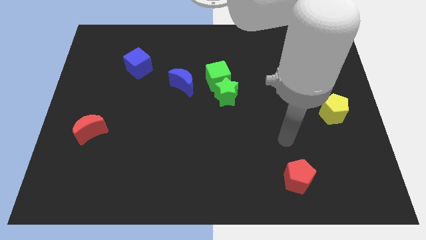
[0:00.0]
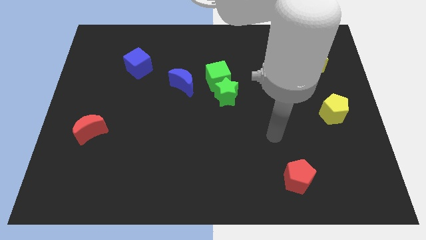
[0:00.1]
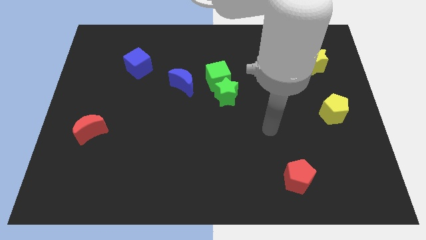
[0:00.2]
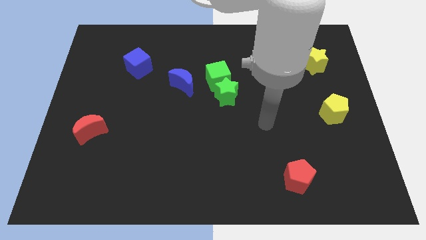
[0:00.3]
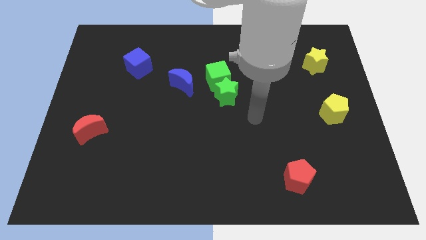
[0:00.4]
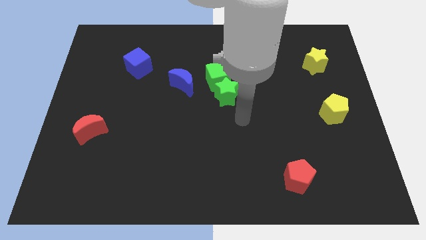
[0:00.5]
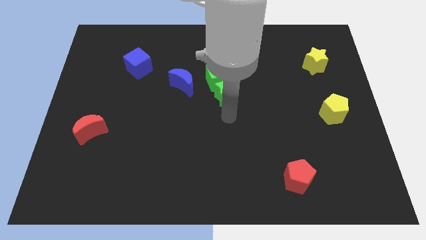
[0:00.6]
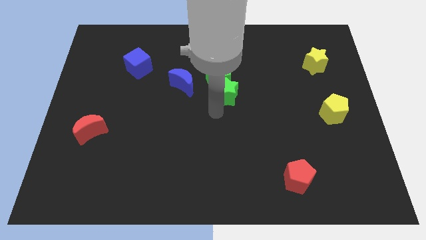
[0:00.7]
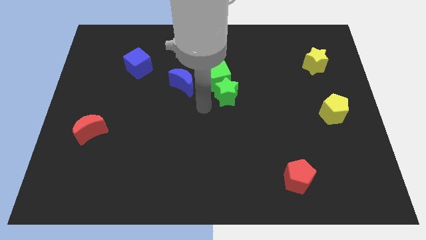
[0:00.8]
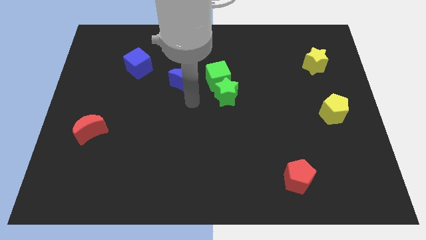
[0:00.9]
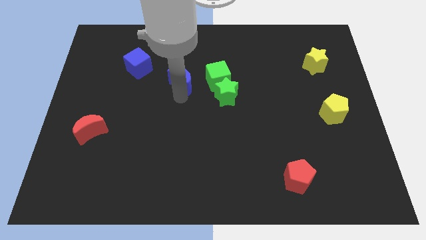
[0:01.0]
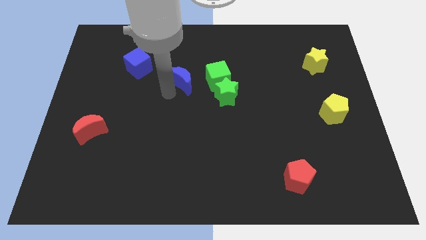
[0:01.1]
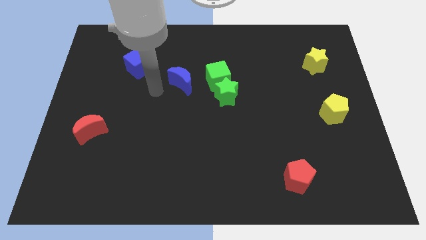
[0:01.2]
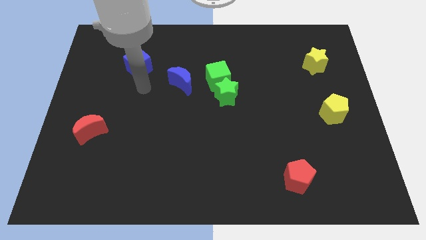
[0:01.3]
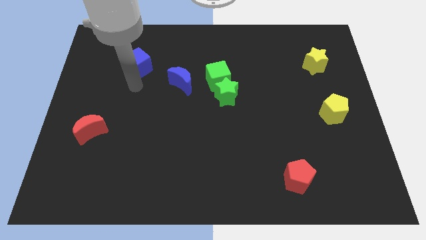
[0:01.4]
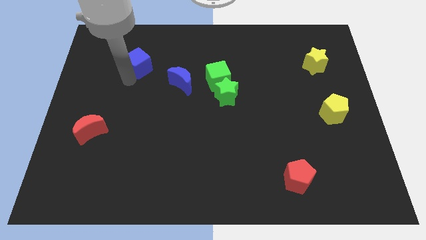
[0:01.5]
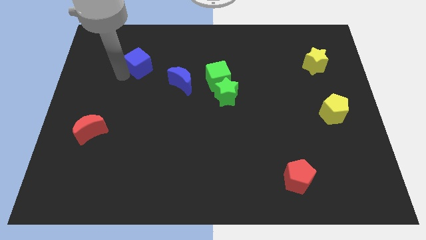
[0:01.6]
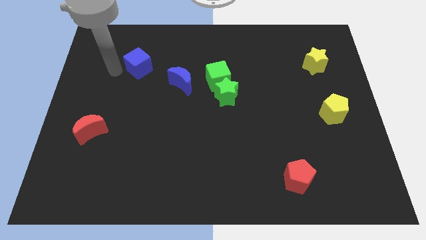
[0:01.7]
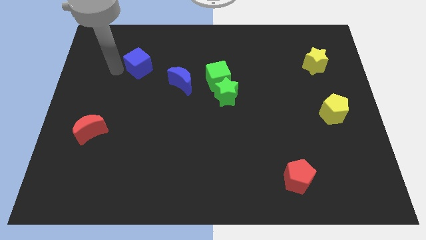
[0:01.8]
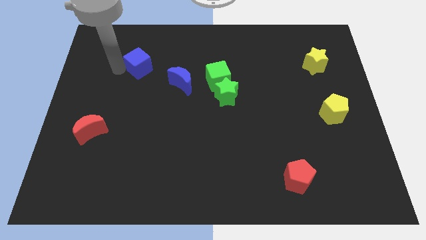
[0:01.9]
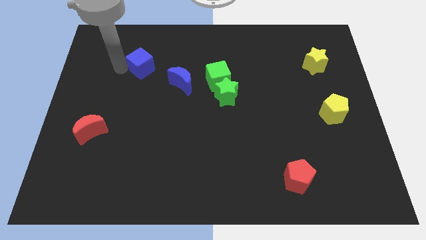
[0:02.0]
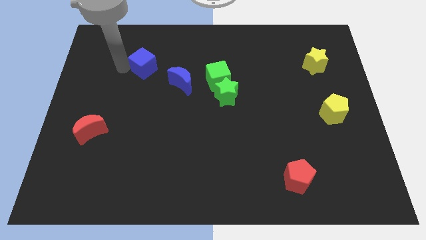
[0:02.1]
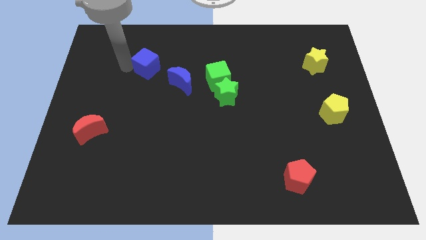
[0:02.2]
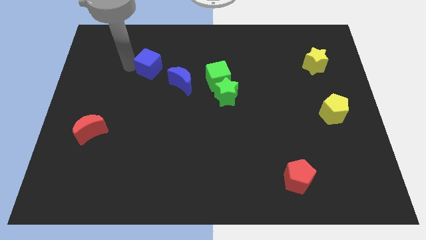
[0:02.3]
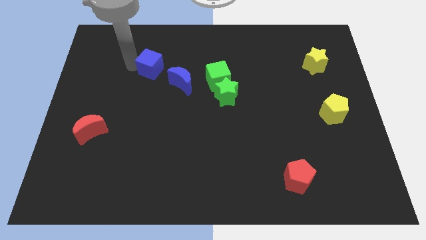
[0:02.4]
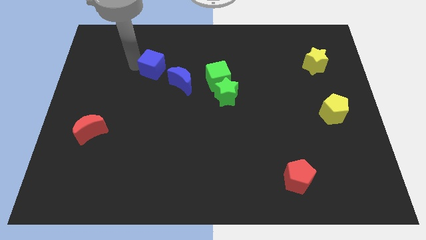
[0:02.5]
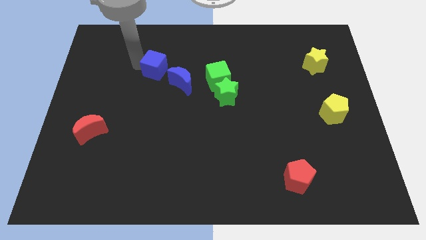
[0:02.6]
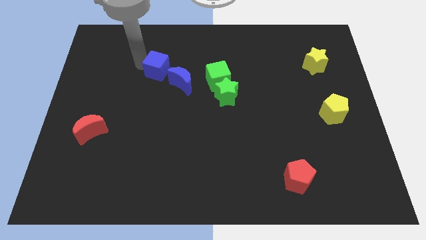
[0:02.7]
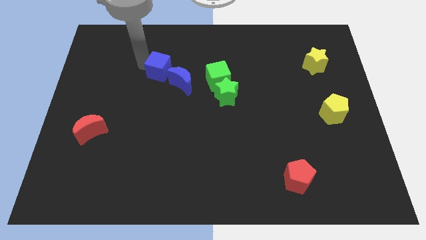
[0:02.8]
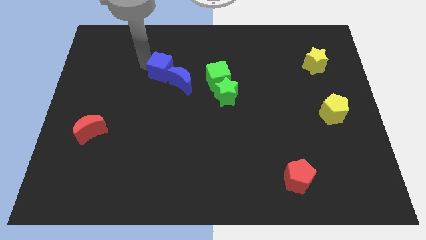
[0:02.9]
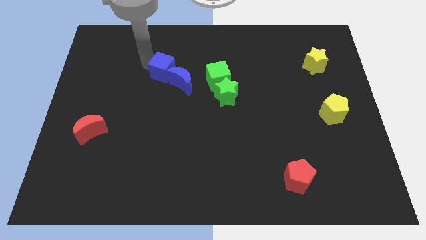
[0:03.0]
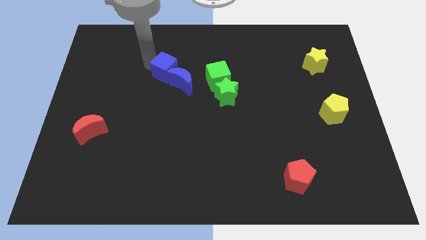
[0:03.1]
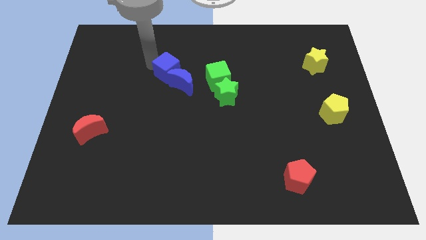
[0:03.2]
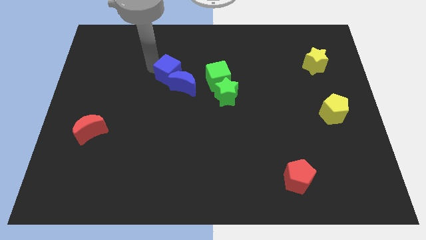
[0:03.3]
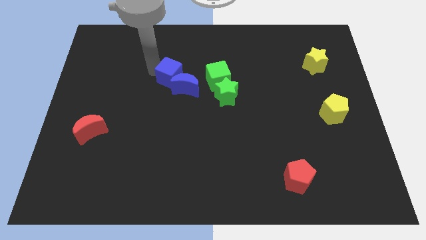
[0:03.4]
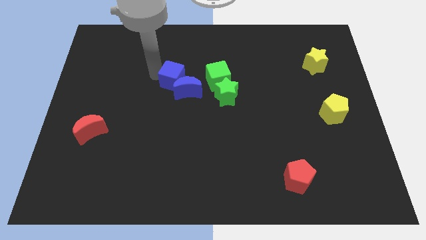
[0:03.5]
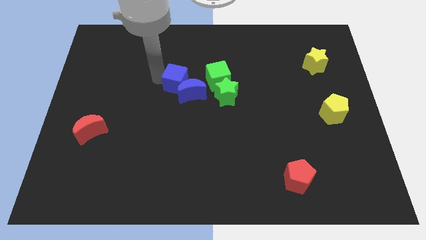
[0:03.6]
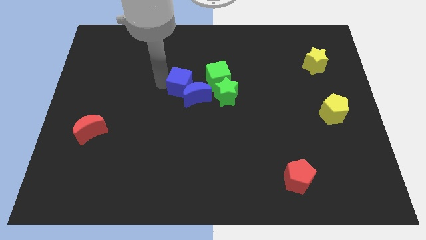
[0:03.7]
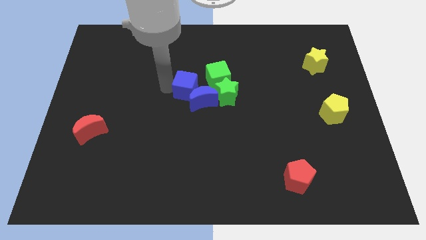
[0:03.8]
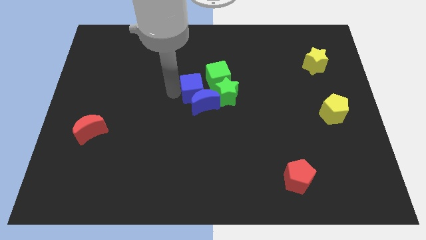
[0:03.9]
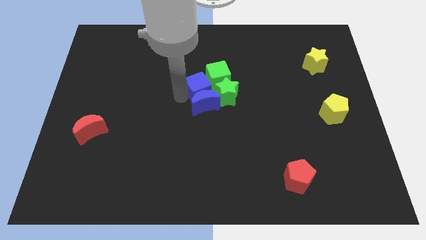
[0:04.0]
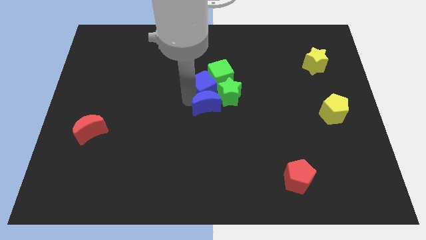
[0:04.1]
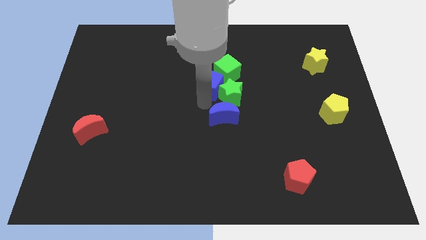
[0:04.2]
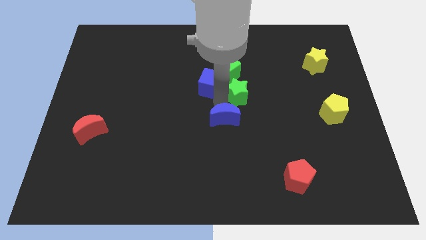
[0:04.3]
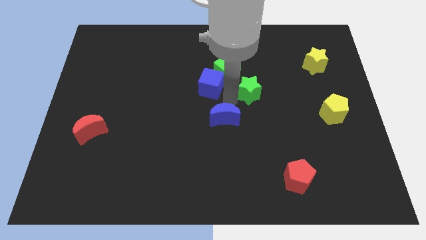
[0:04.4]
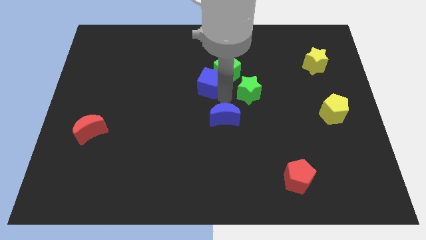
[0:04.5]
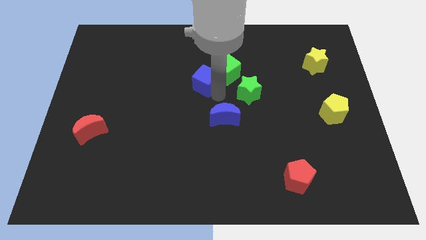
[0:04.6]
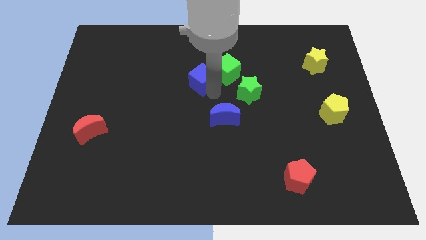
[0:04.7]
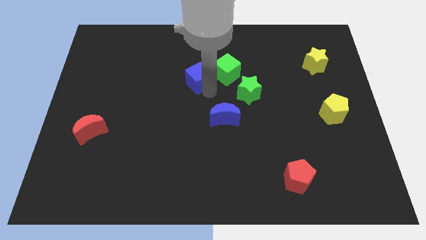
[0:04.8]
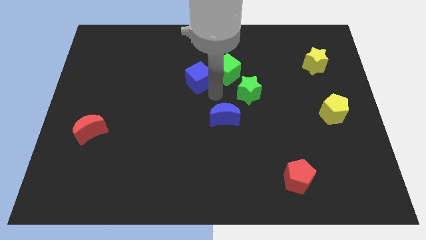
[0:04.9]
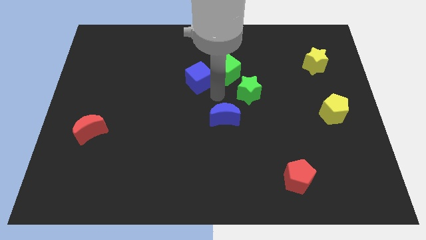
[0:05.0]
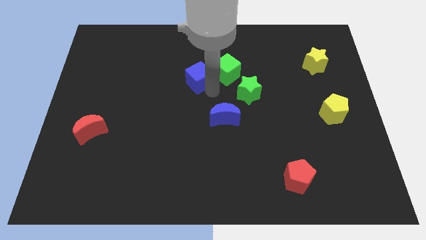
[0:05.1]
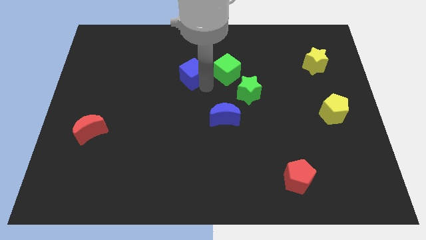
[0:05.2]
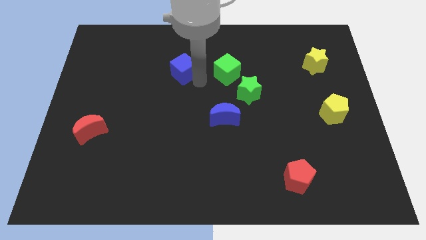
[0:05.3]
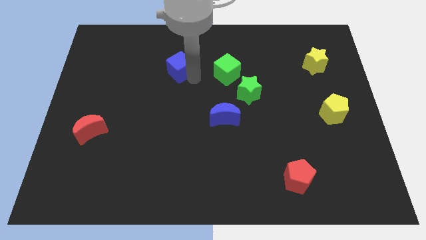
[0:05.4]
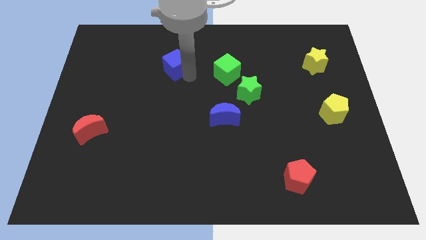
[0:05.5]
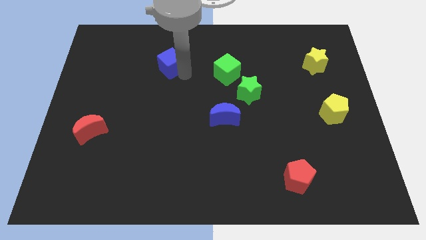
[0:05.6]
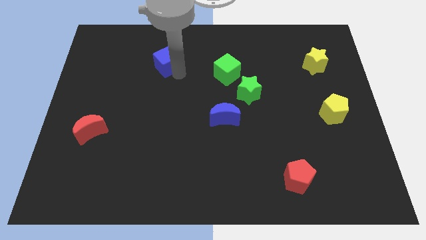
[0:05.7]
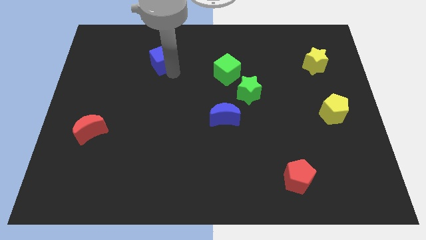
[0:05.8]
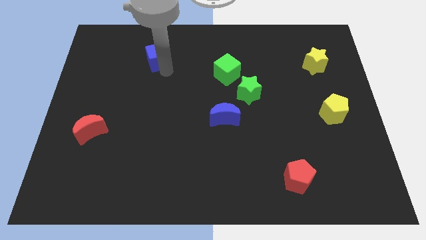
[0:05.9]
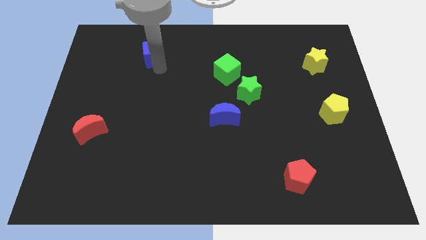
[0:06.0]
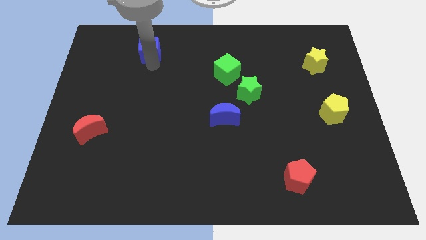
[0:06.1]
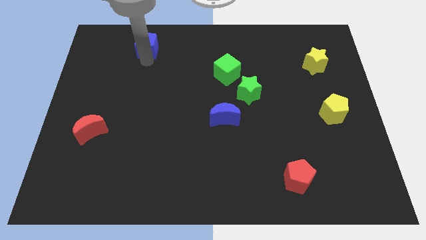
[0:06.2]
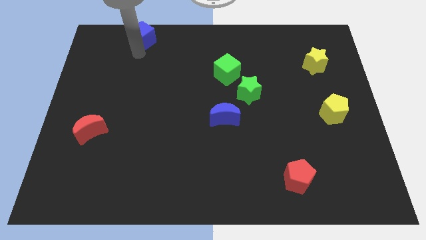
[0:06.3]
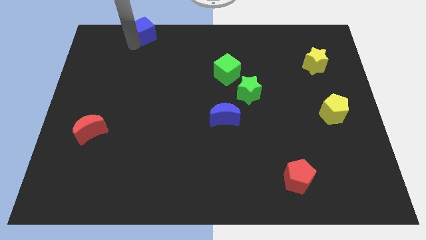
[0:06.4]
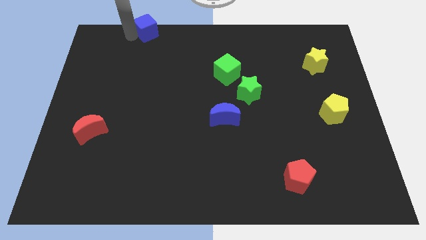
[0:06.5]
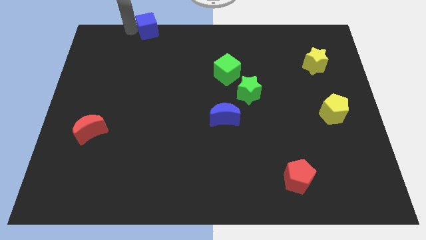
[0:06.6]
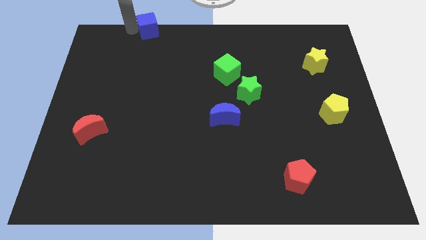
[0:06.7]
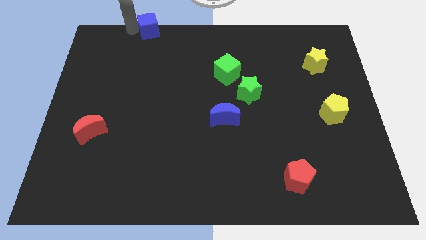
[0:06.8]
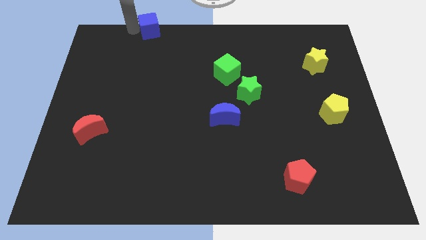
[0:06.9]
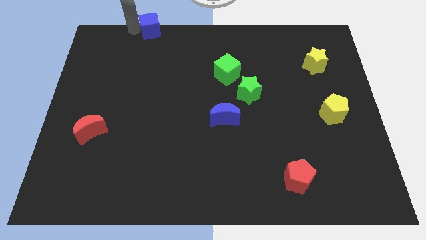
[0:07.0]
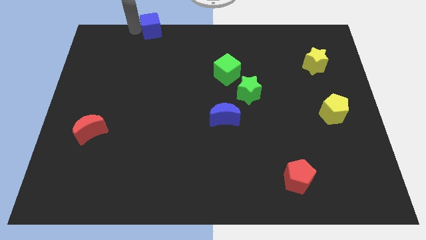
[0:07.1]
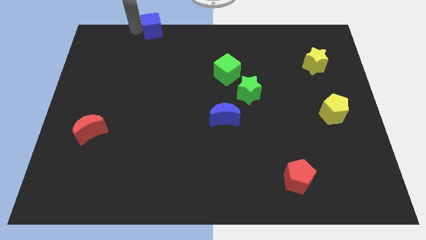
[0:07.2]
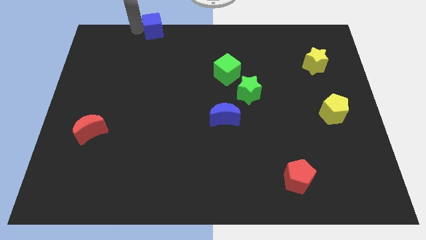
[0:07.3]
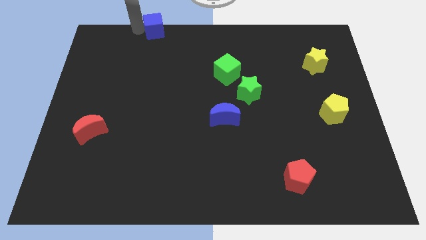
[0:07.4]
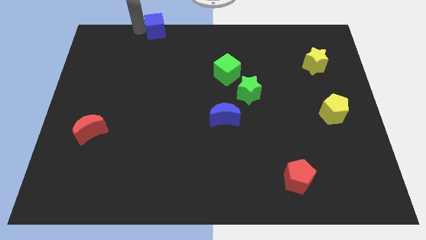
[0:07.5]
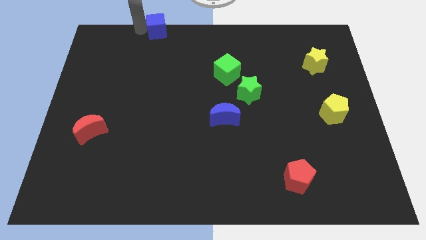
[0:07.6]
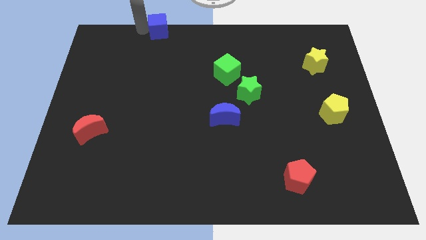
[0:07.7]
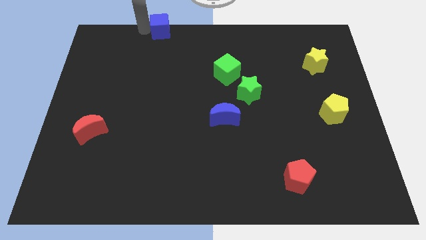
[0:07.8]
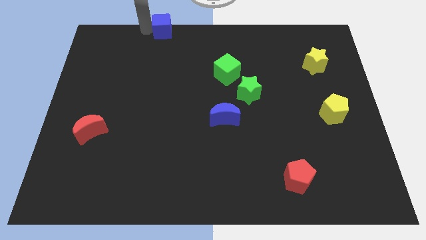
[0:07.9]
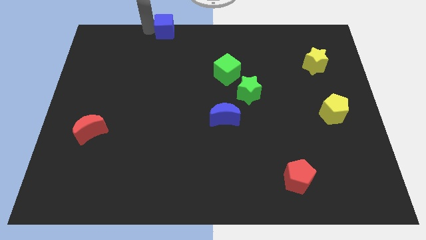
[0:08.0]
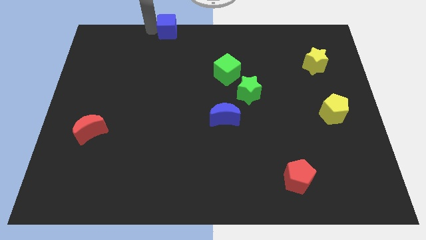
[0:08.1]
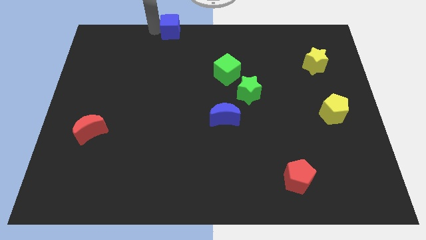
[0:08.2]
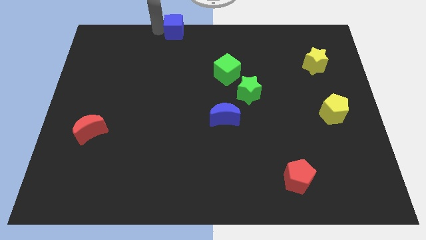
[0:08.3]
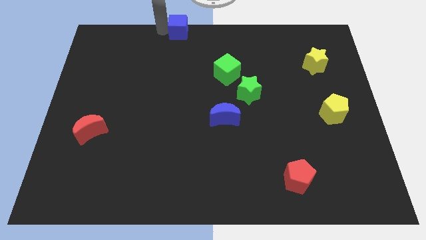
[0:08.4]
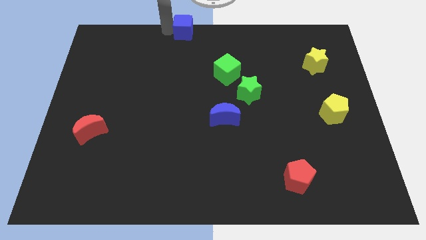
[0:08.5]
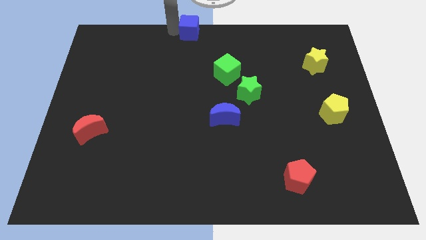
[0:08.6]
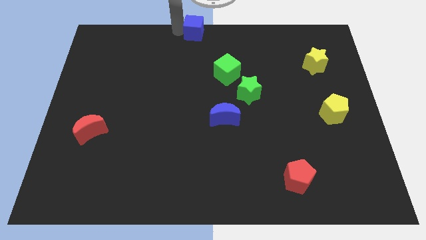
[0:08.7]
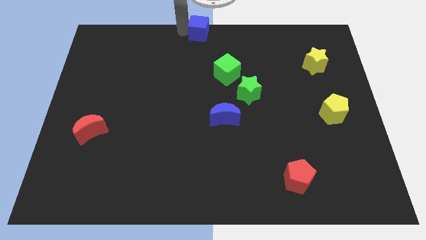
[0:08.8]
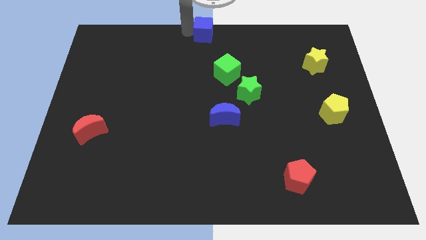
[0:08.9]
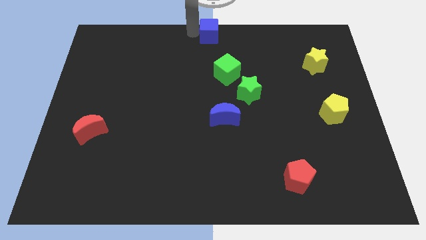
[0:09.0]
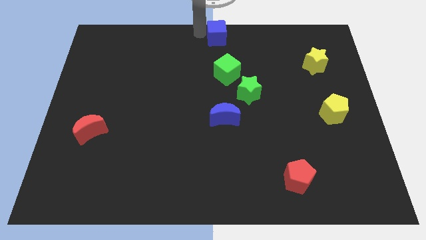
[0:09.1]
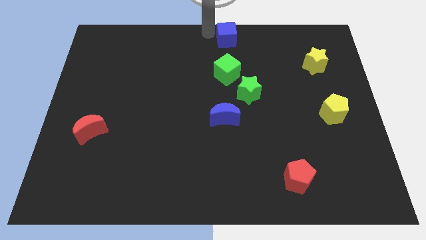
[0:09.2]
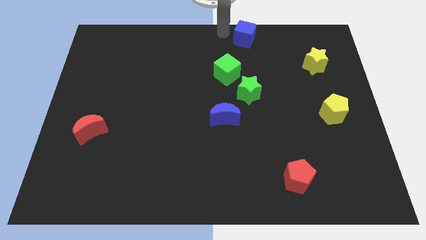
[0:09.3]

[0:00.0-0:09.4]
move the blue cube to the right
